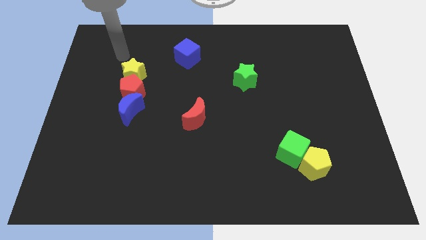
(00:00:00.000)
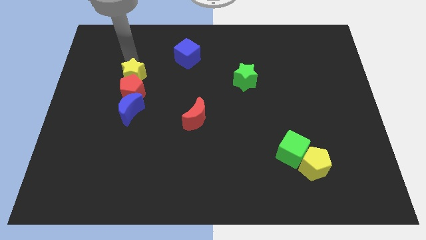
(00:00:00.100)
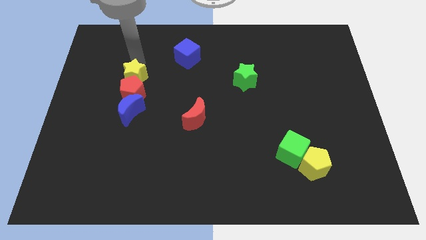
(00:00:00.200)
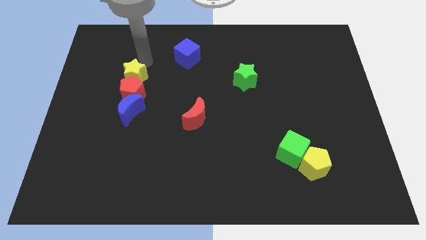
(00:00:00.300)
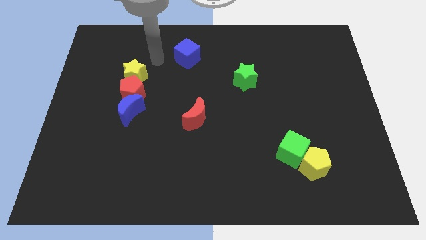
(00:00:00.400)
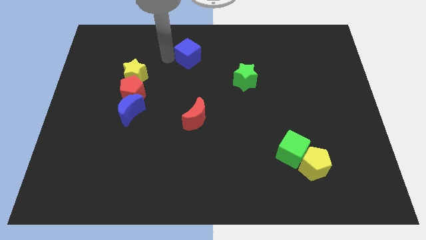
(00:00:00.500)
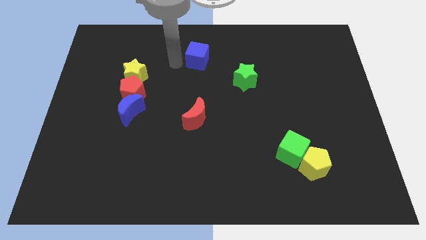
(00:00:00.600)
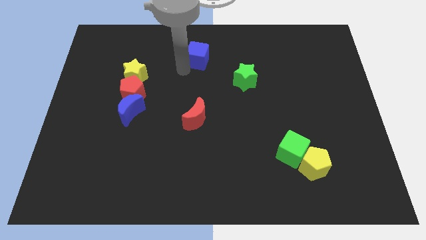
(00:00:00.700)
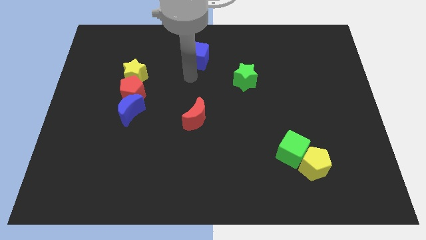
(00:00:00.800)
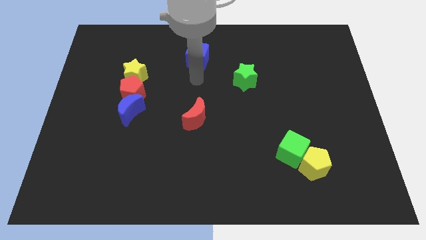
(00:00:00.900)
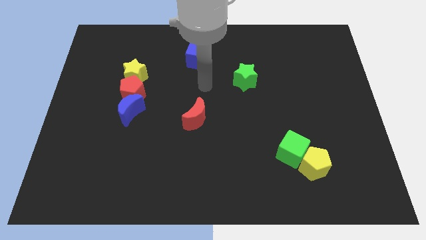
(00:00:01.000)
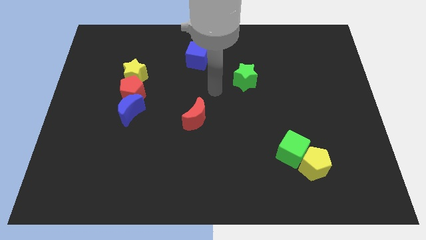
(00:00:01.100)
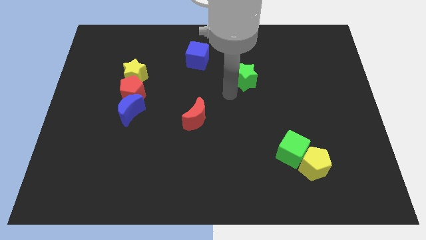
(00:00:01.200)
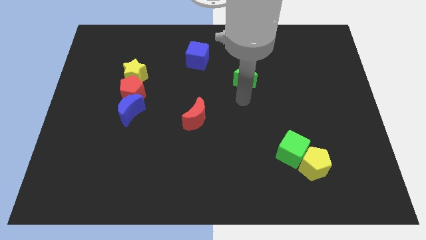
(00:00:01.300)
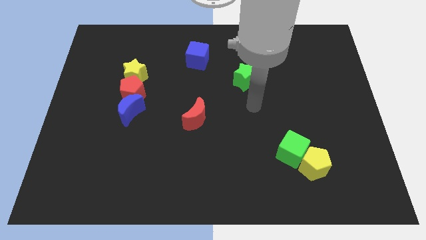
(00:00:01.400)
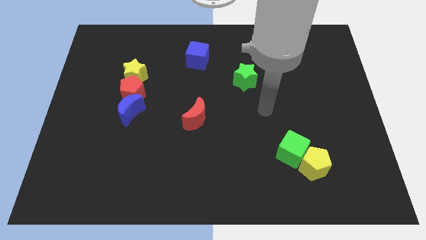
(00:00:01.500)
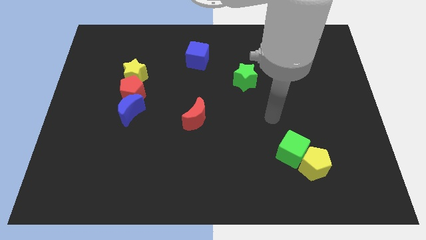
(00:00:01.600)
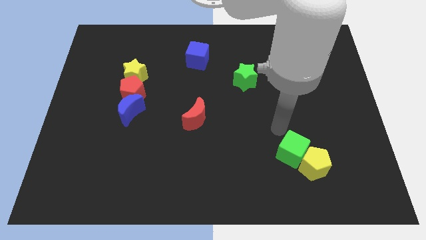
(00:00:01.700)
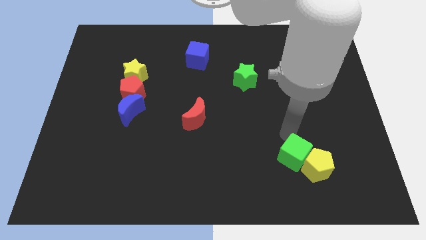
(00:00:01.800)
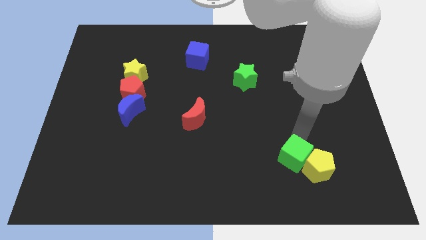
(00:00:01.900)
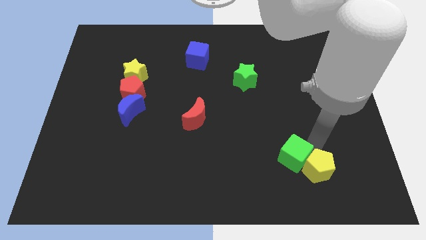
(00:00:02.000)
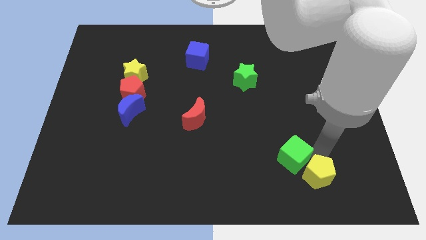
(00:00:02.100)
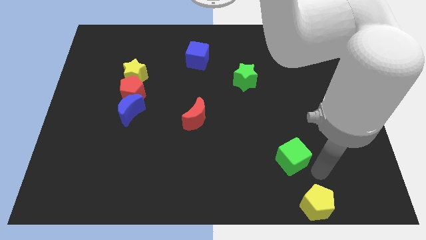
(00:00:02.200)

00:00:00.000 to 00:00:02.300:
separate the green cube from the yellow pentagon

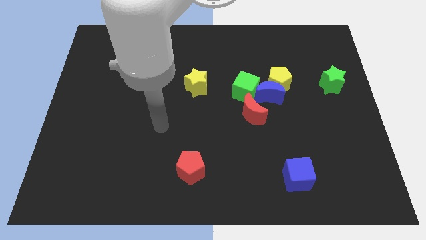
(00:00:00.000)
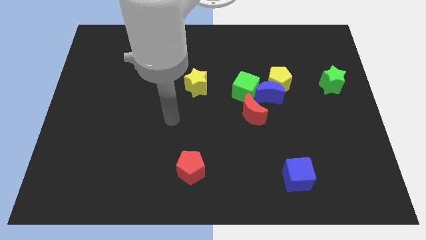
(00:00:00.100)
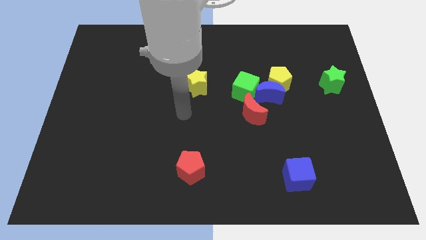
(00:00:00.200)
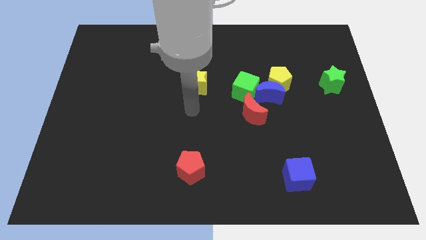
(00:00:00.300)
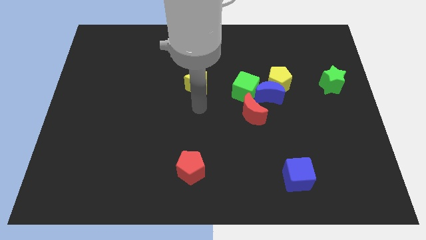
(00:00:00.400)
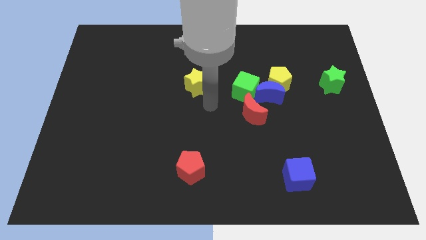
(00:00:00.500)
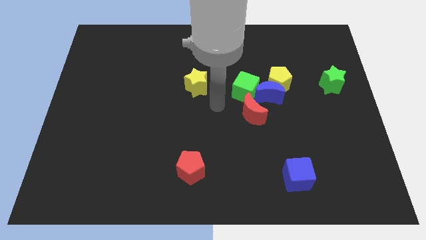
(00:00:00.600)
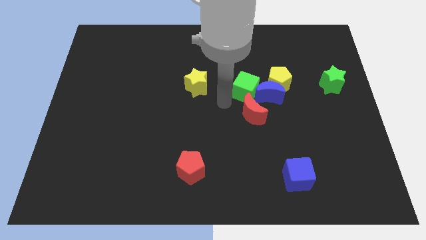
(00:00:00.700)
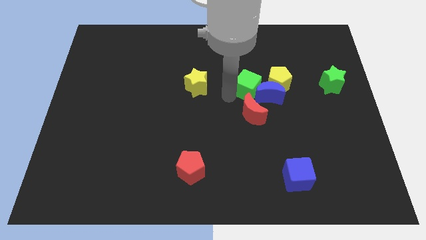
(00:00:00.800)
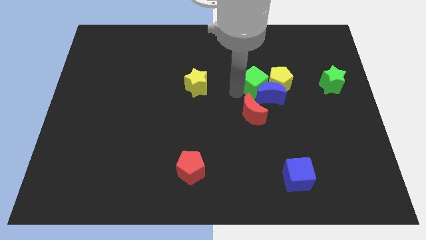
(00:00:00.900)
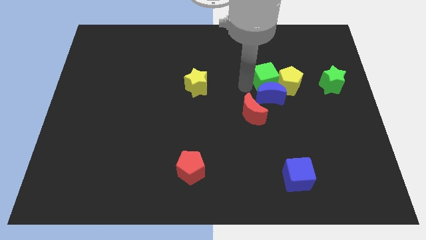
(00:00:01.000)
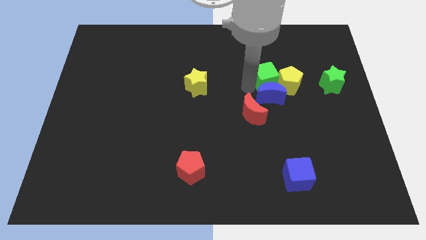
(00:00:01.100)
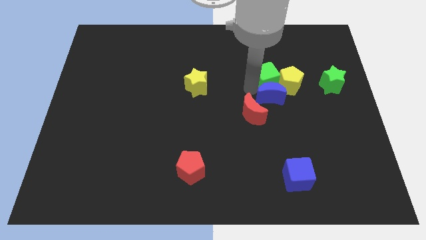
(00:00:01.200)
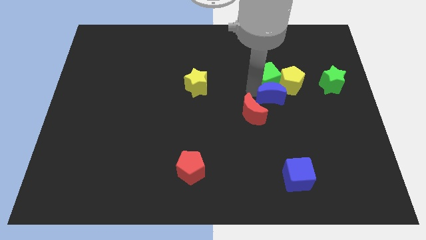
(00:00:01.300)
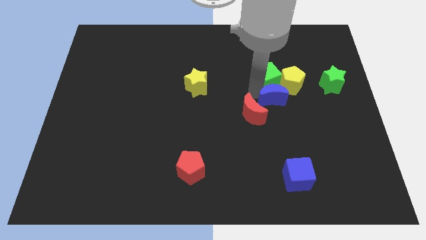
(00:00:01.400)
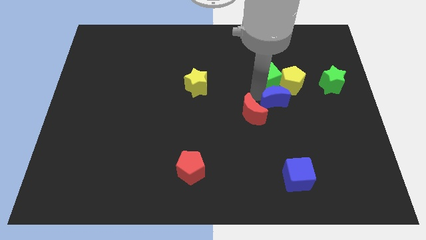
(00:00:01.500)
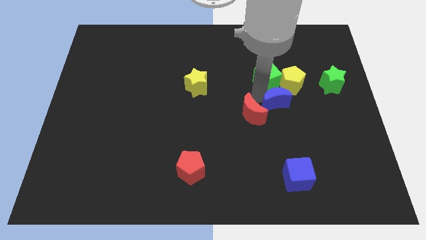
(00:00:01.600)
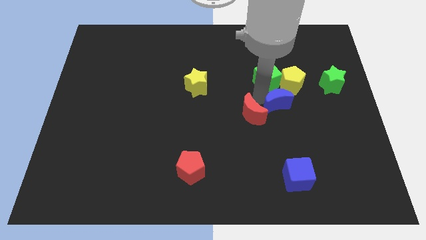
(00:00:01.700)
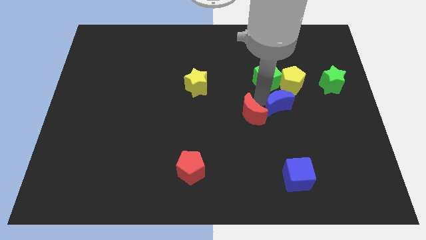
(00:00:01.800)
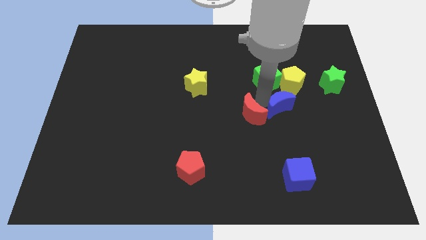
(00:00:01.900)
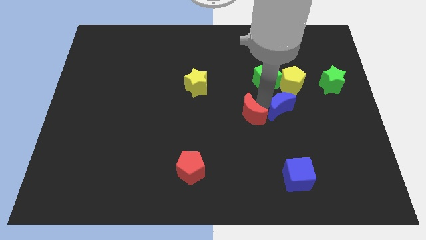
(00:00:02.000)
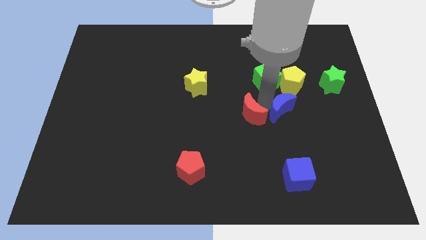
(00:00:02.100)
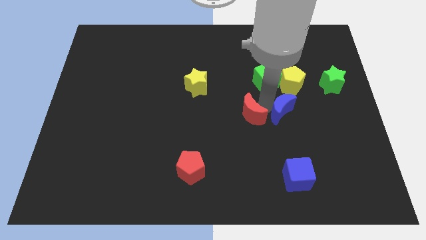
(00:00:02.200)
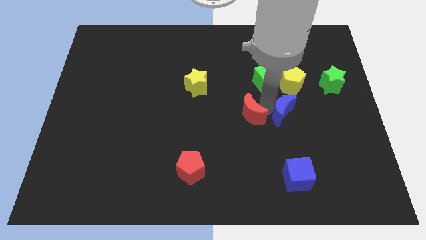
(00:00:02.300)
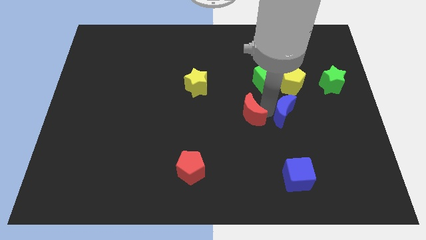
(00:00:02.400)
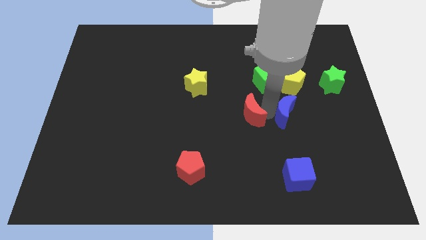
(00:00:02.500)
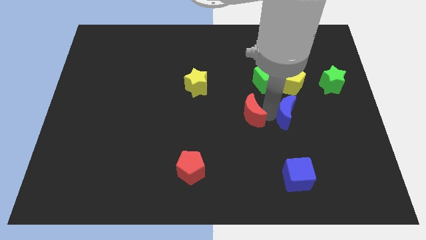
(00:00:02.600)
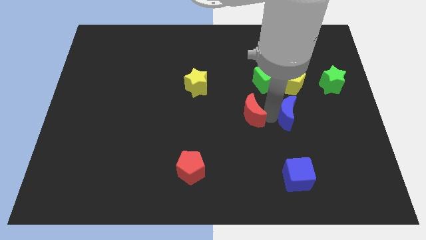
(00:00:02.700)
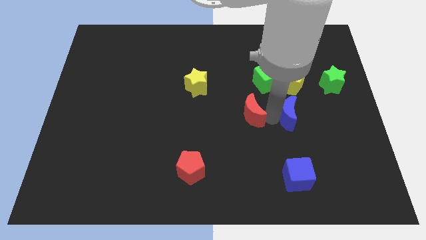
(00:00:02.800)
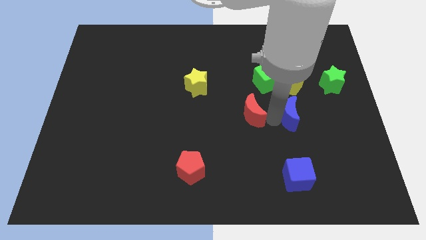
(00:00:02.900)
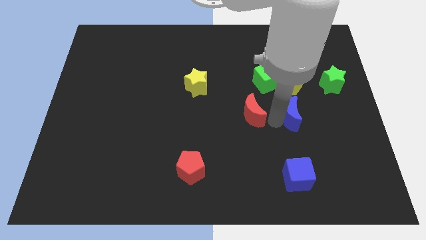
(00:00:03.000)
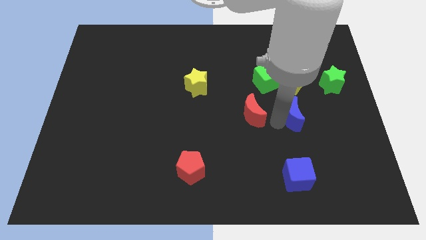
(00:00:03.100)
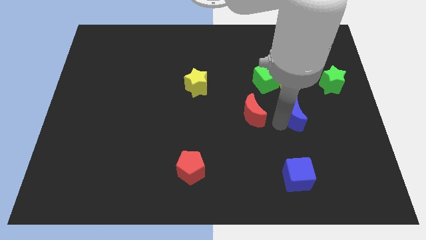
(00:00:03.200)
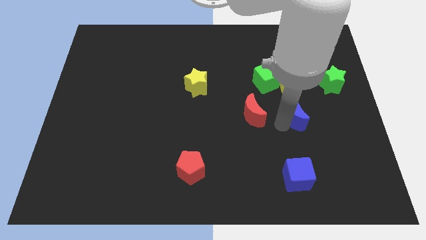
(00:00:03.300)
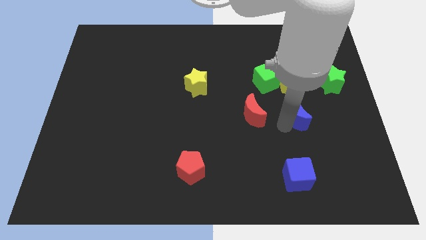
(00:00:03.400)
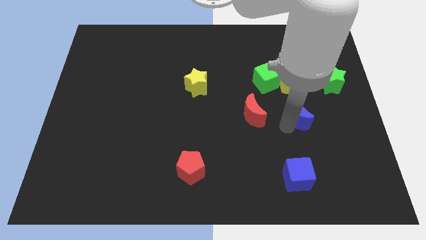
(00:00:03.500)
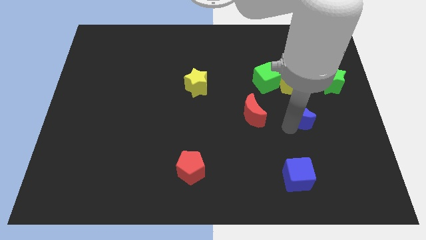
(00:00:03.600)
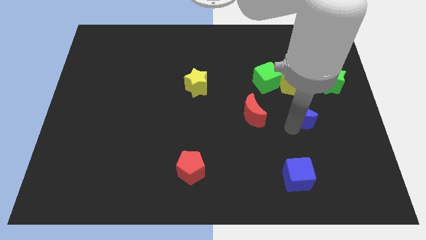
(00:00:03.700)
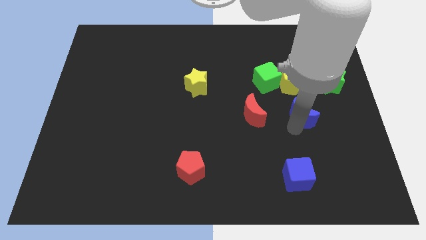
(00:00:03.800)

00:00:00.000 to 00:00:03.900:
pull the blue moon apart from the yellow pentagon, green cube, and red moon

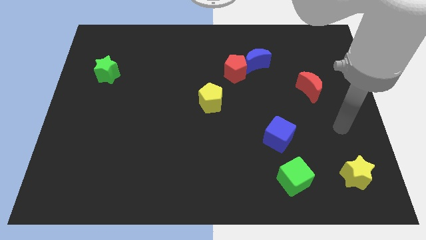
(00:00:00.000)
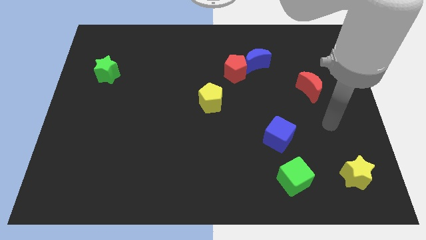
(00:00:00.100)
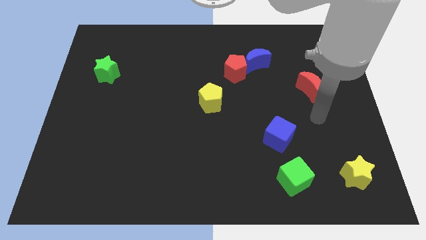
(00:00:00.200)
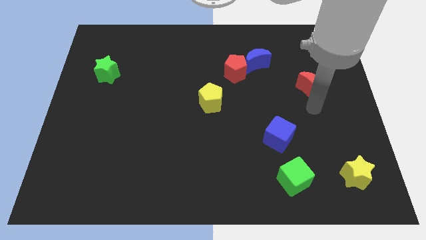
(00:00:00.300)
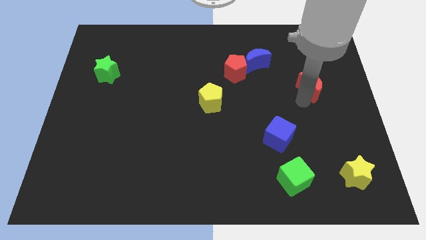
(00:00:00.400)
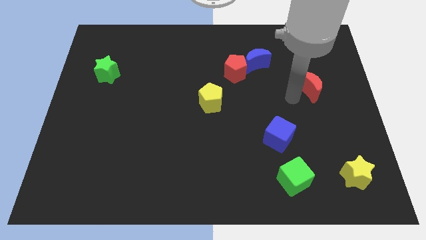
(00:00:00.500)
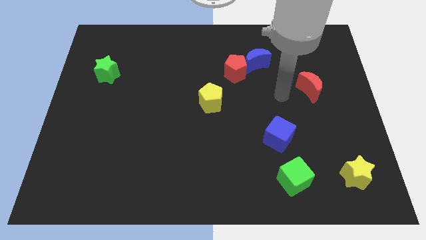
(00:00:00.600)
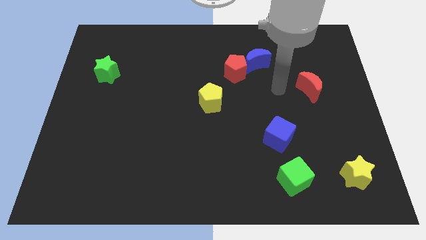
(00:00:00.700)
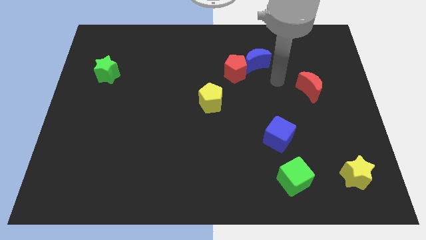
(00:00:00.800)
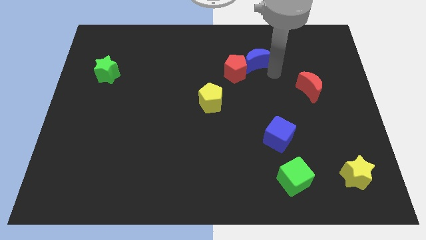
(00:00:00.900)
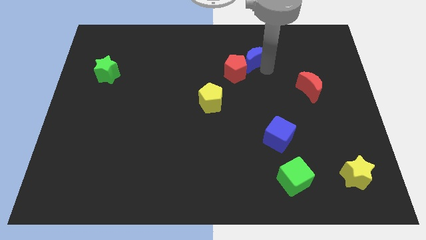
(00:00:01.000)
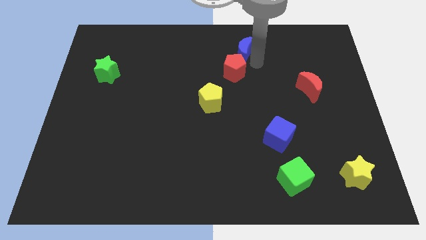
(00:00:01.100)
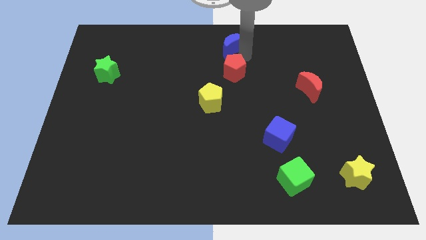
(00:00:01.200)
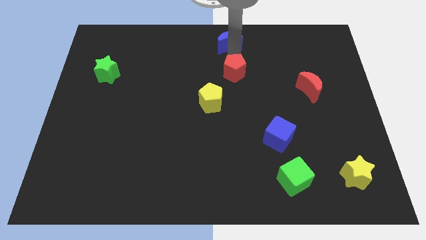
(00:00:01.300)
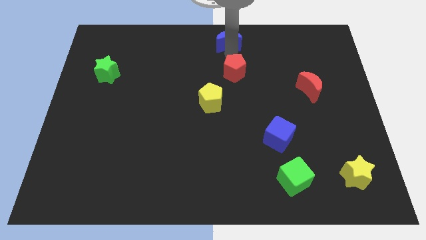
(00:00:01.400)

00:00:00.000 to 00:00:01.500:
separate the red pentagon from the blue moon

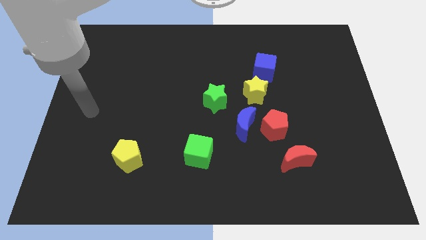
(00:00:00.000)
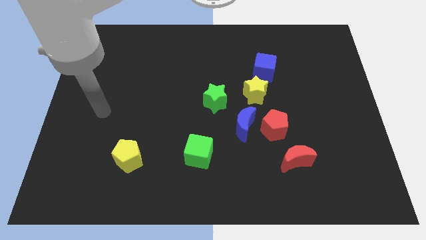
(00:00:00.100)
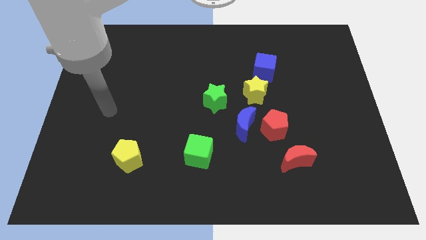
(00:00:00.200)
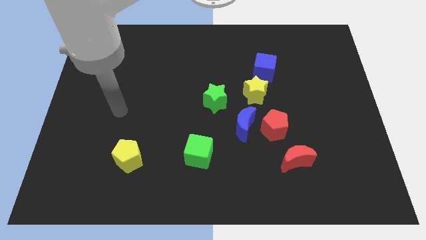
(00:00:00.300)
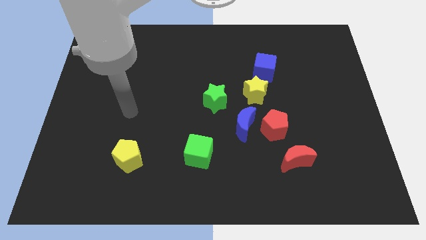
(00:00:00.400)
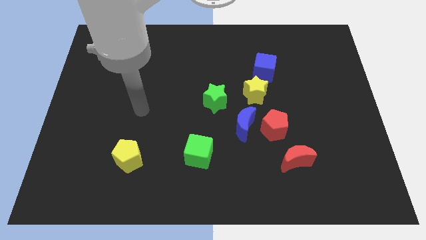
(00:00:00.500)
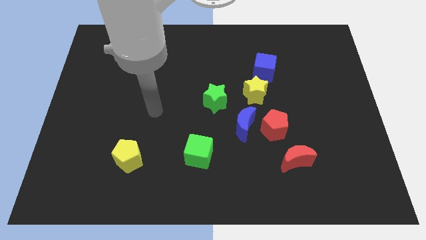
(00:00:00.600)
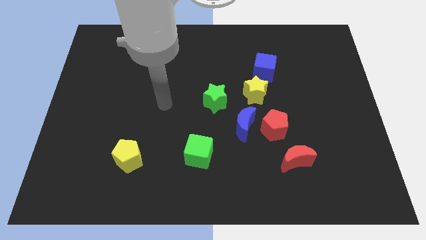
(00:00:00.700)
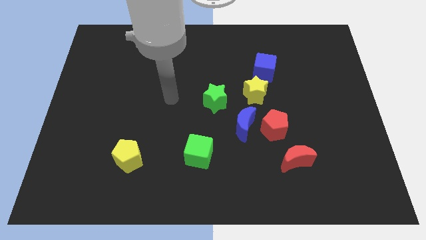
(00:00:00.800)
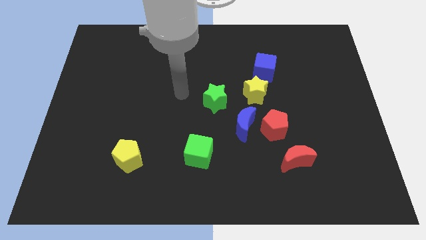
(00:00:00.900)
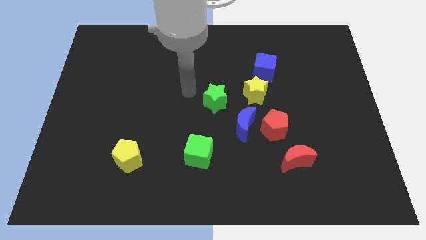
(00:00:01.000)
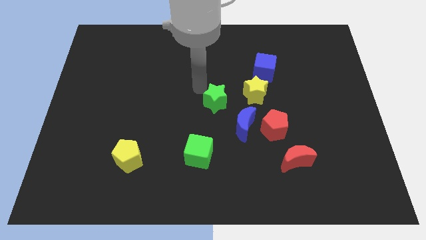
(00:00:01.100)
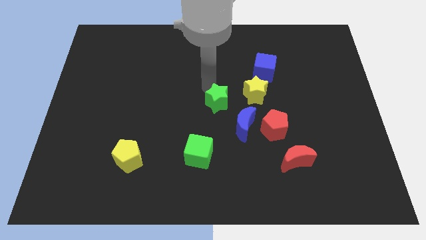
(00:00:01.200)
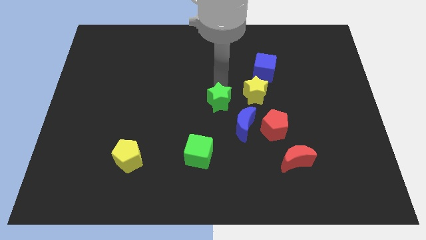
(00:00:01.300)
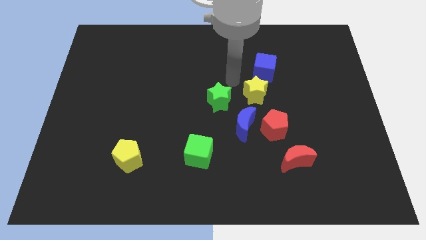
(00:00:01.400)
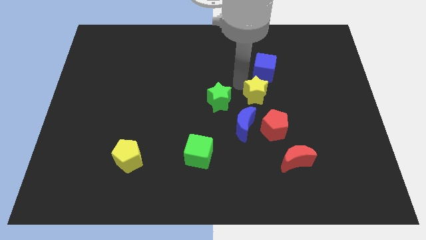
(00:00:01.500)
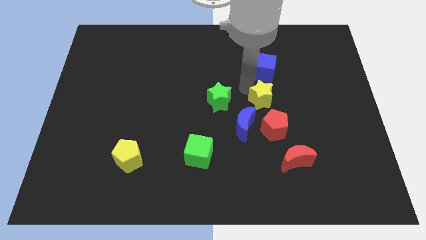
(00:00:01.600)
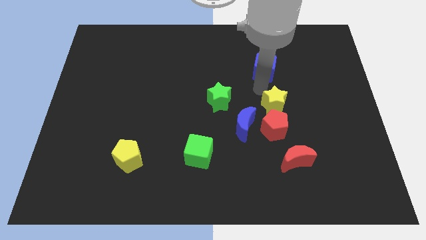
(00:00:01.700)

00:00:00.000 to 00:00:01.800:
move the blue cube away from the yellow star
